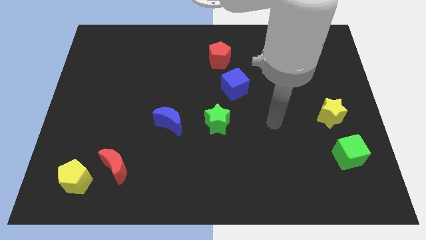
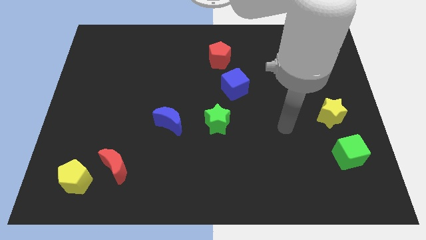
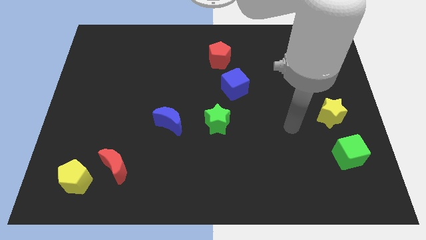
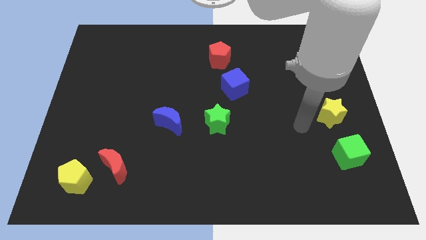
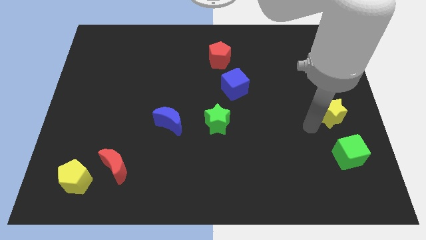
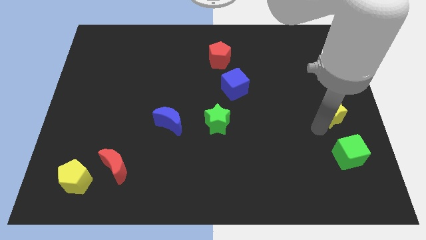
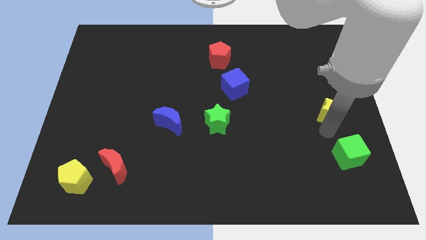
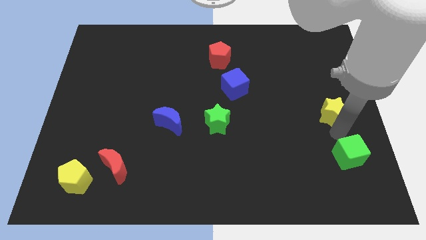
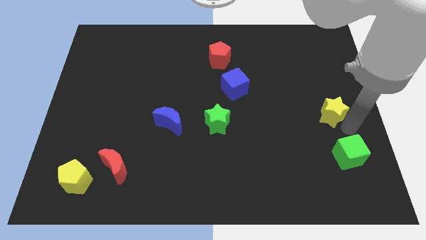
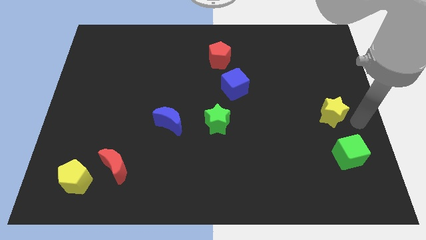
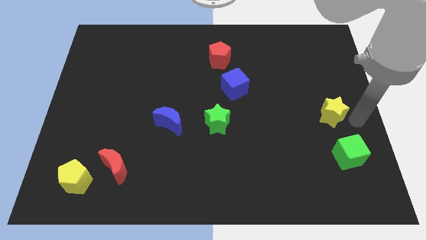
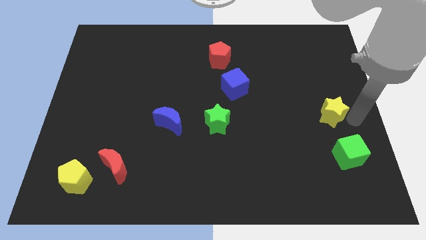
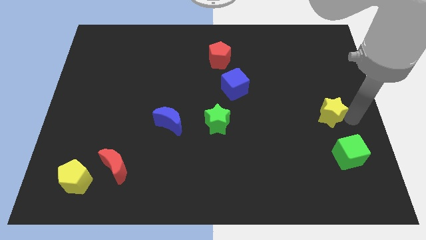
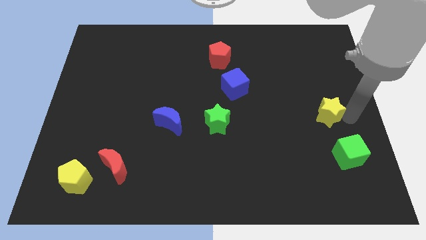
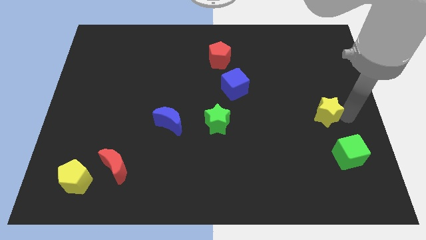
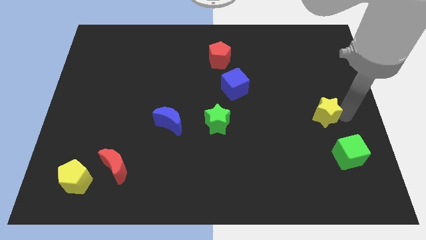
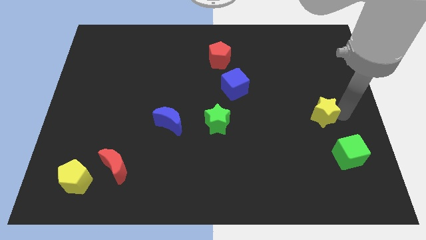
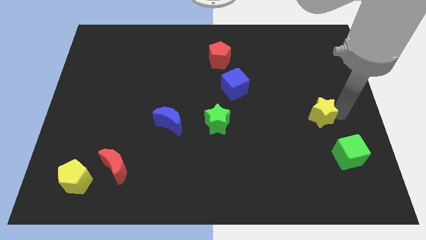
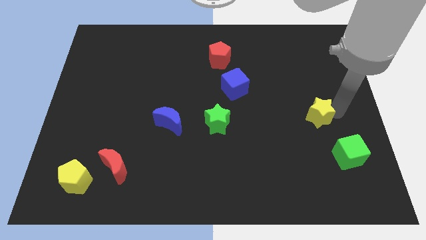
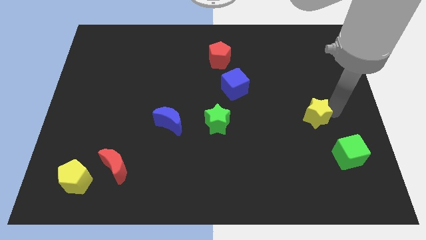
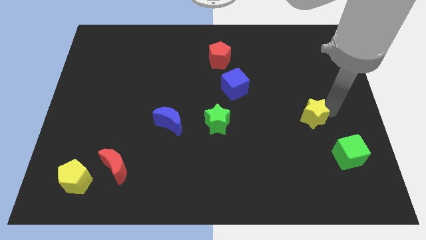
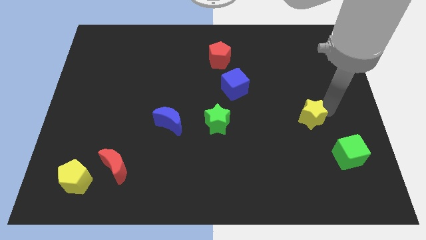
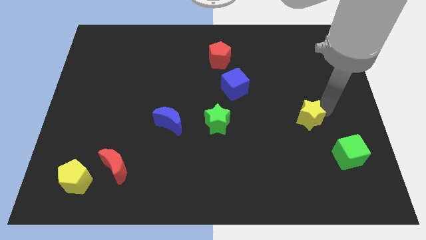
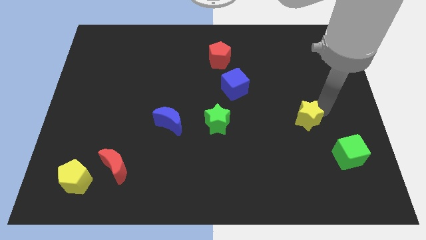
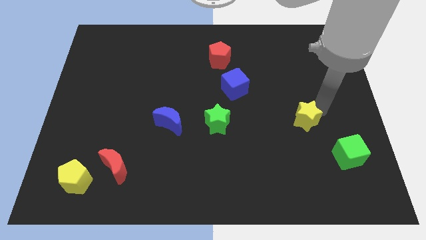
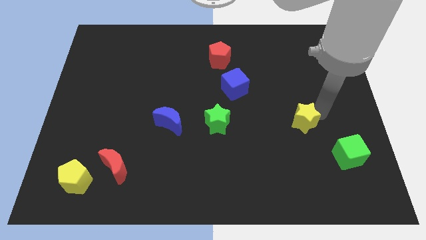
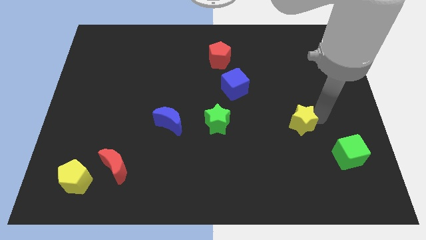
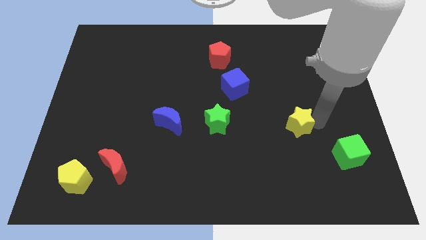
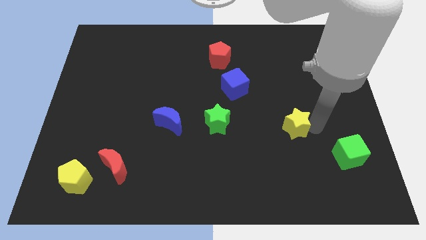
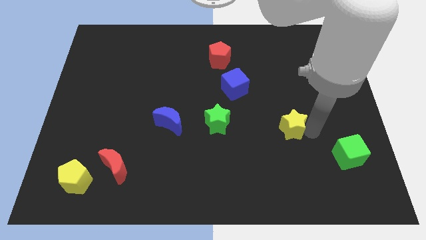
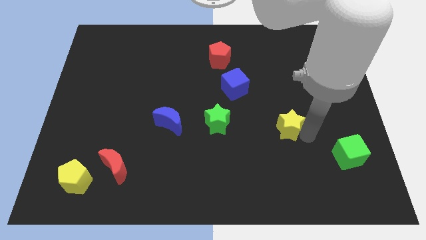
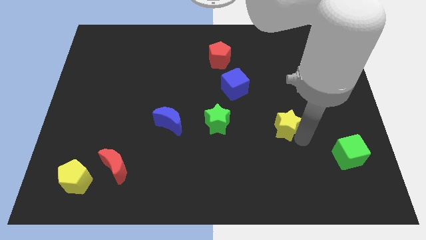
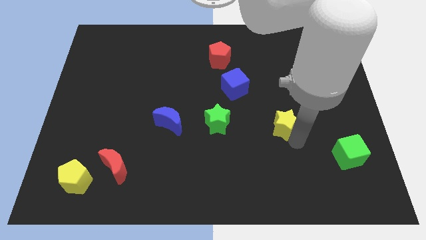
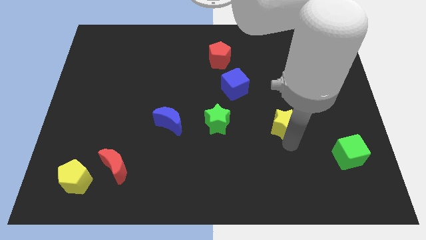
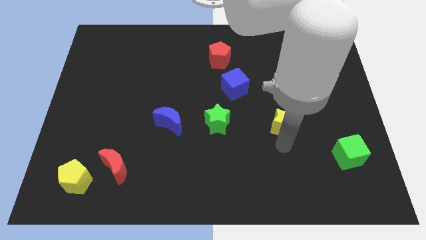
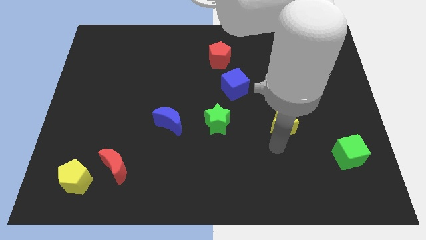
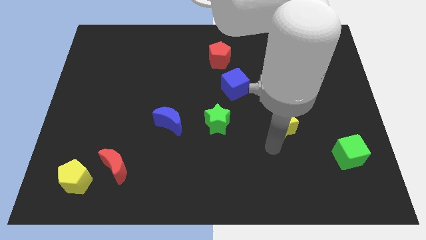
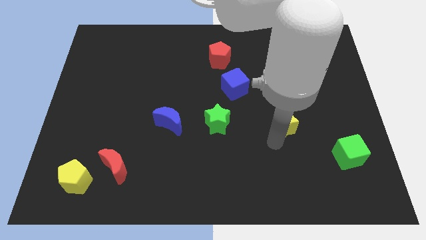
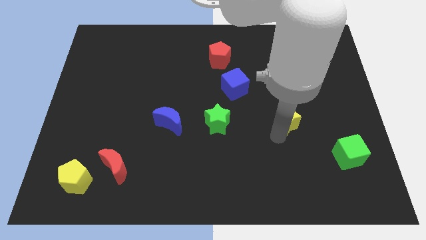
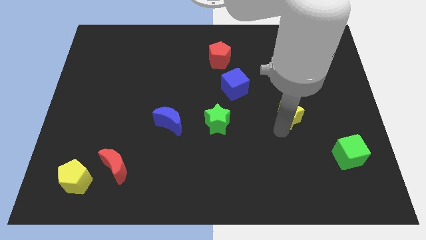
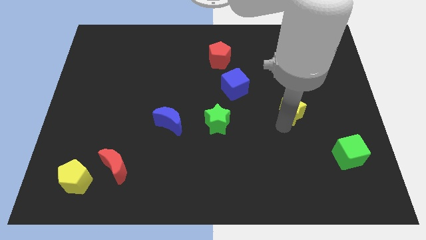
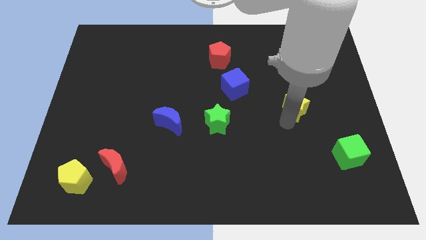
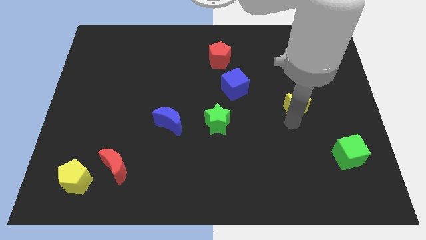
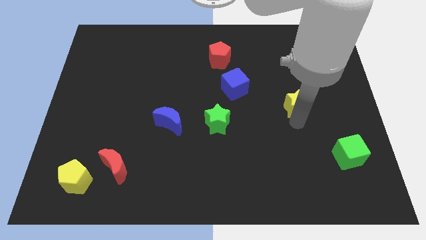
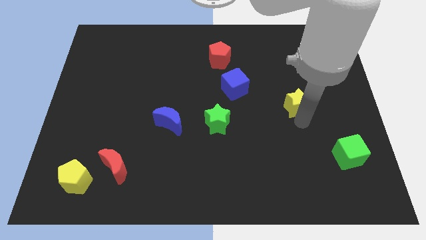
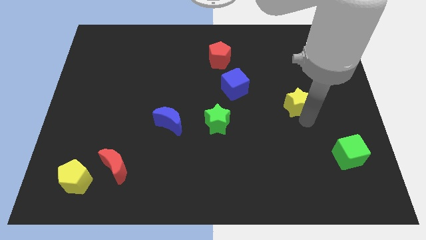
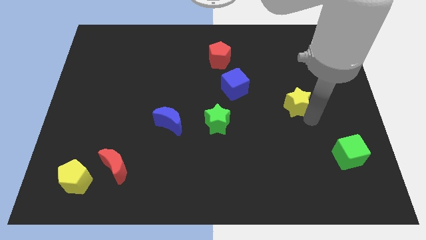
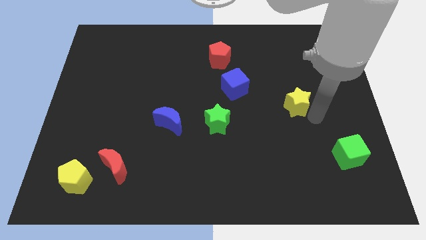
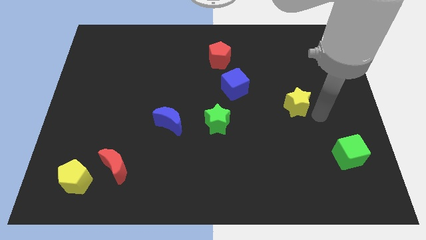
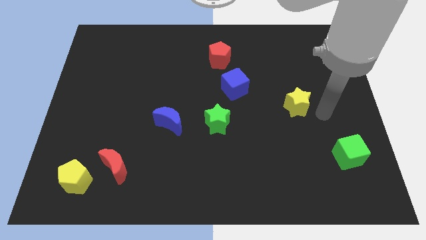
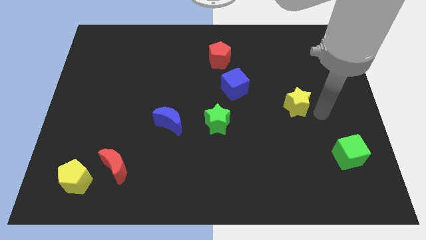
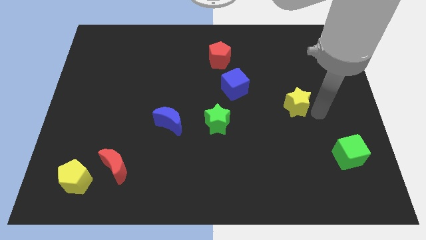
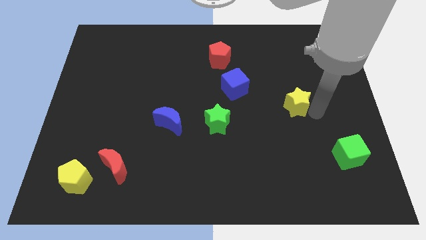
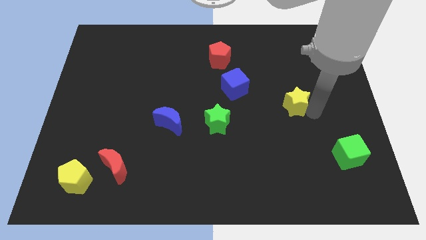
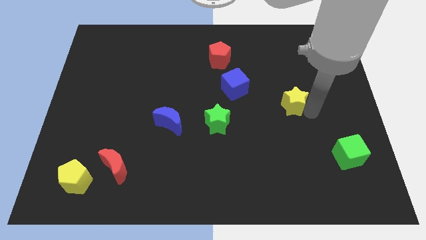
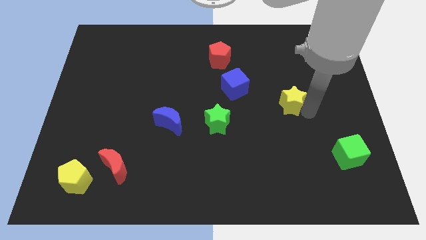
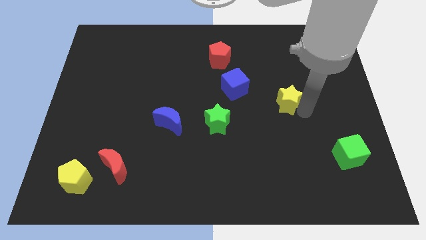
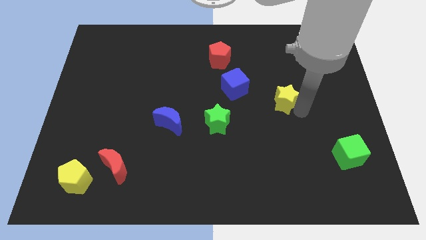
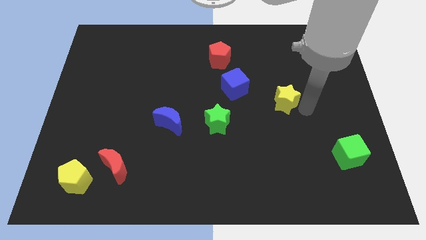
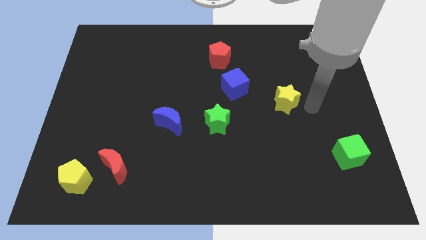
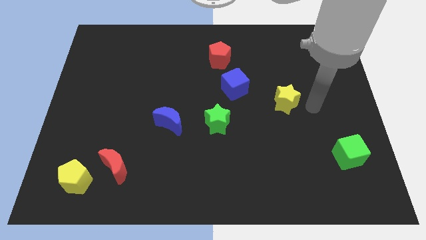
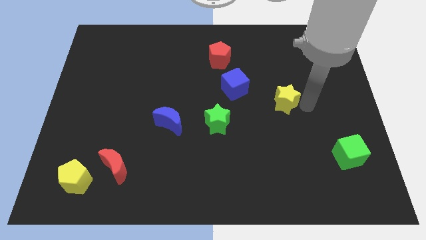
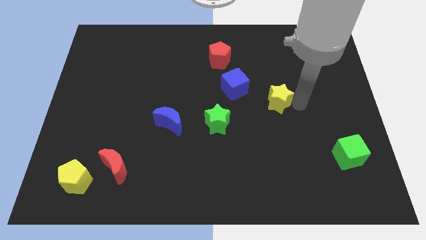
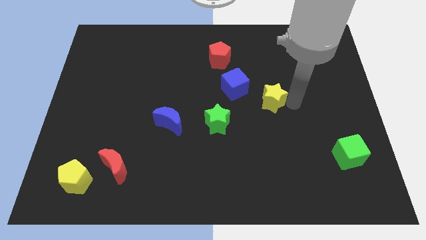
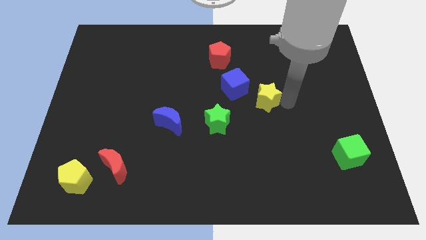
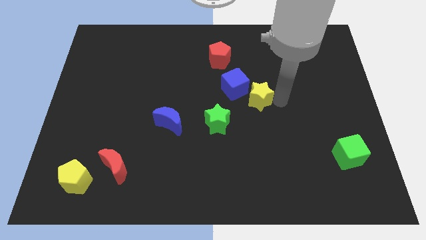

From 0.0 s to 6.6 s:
push the yellow star to the middle
